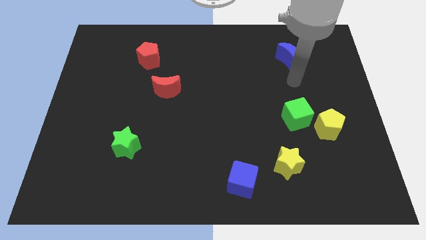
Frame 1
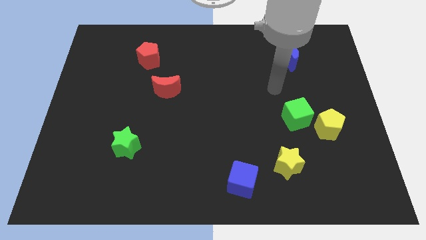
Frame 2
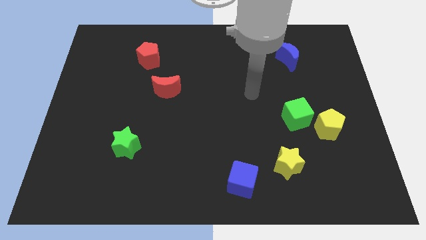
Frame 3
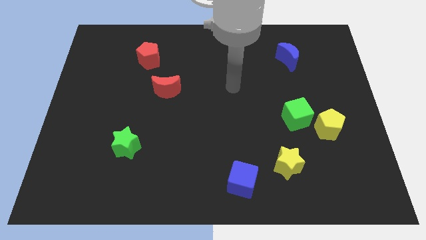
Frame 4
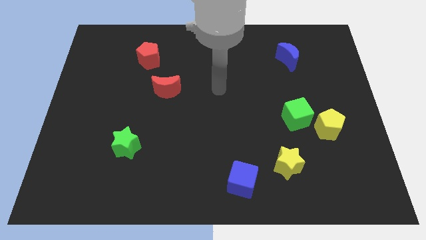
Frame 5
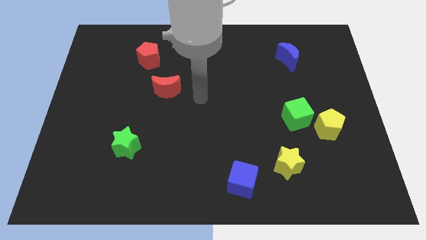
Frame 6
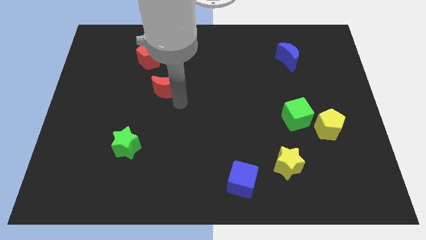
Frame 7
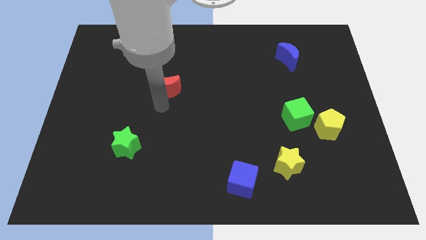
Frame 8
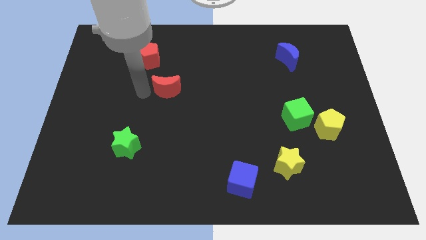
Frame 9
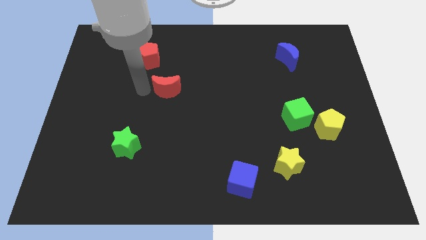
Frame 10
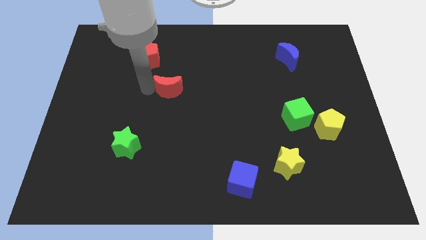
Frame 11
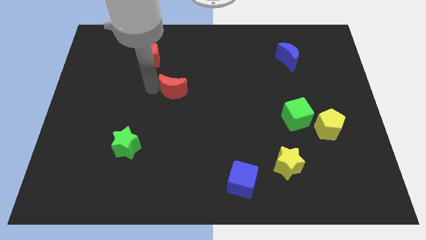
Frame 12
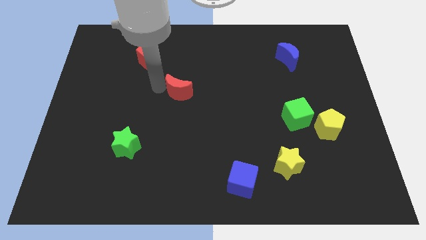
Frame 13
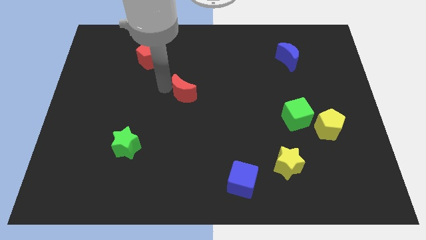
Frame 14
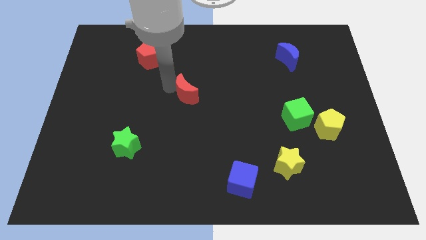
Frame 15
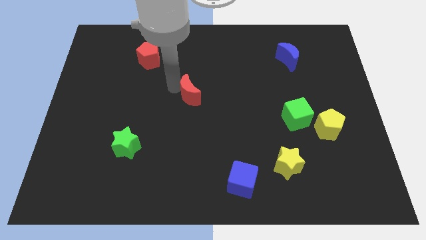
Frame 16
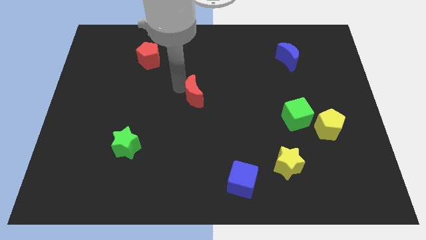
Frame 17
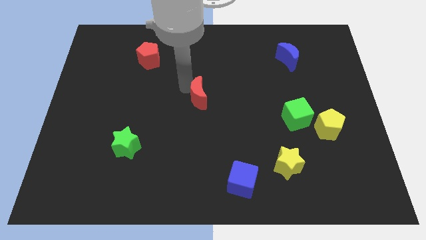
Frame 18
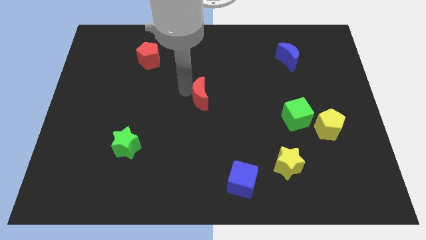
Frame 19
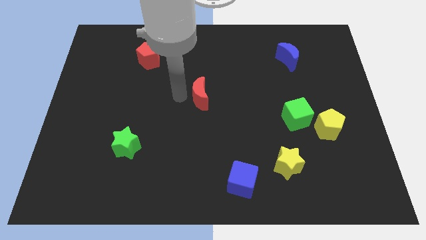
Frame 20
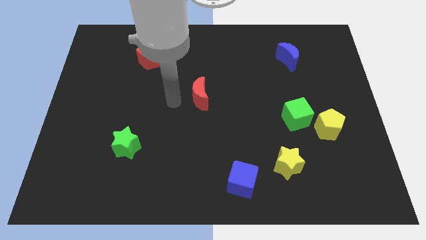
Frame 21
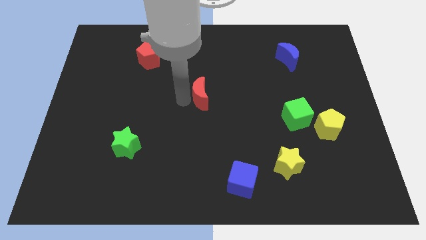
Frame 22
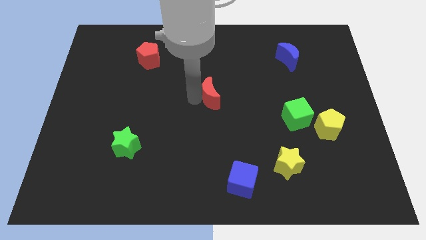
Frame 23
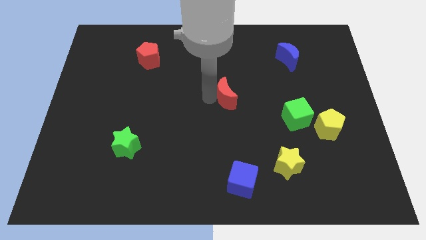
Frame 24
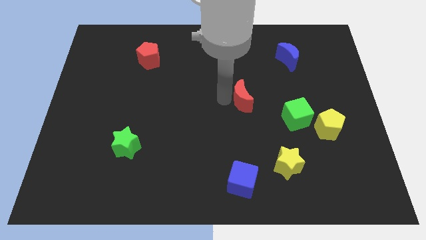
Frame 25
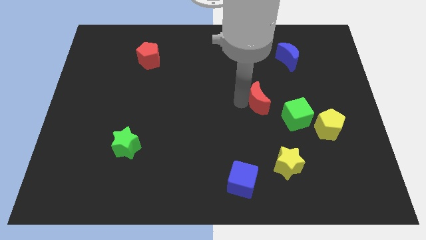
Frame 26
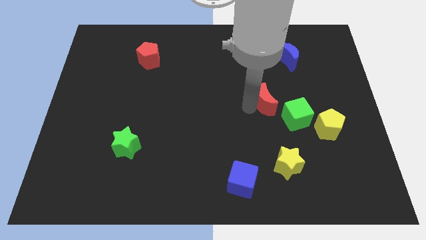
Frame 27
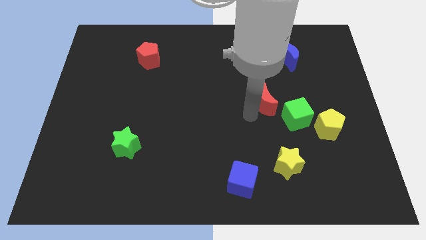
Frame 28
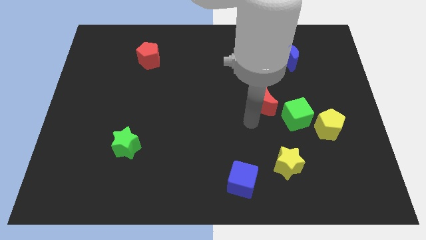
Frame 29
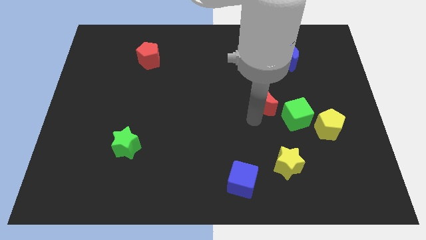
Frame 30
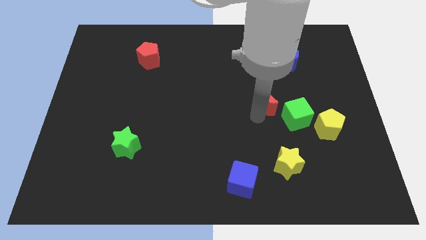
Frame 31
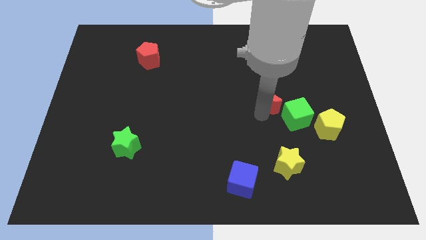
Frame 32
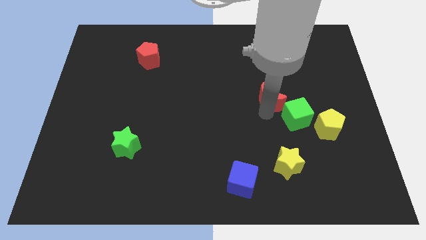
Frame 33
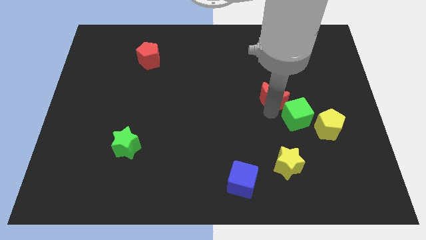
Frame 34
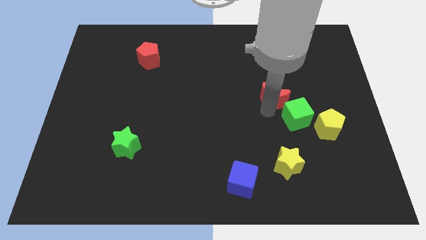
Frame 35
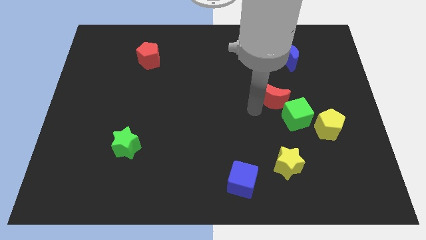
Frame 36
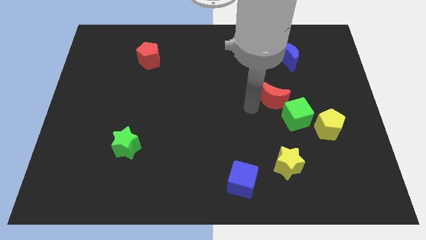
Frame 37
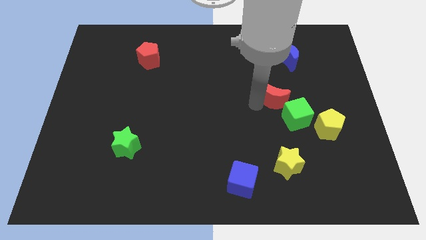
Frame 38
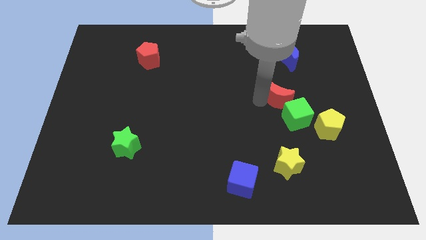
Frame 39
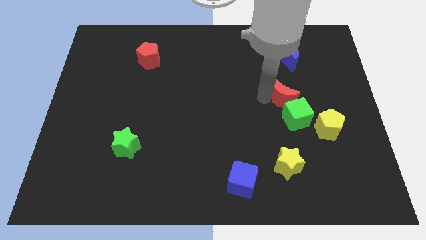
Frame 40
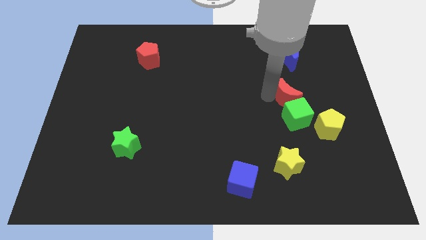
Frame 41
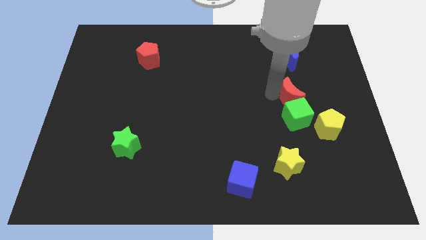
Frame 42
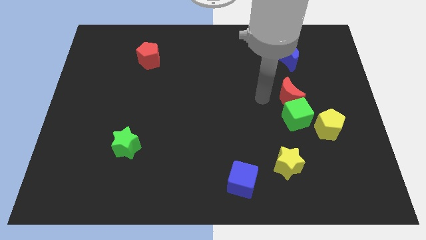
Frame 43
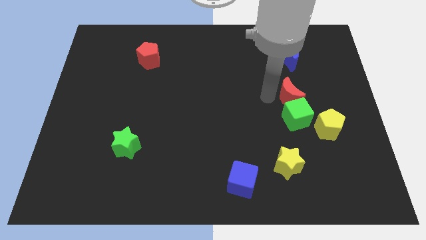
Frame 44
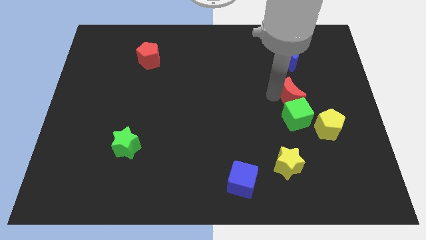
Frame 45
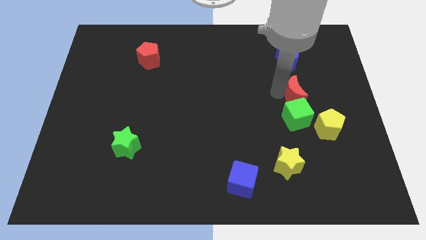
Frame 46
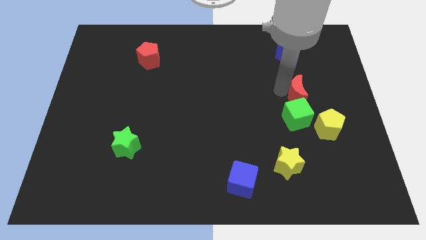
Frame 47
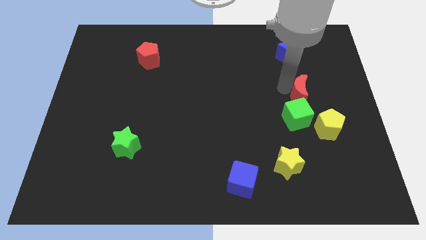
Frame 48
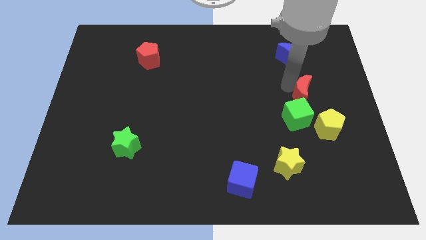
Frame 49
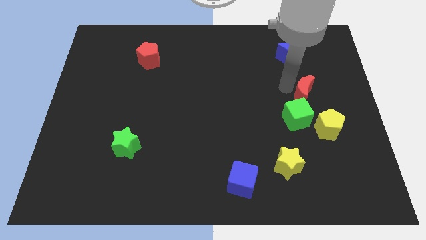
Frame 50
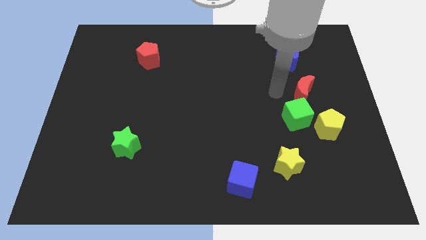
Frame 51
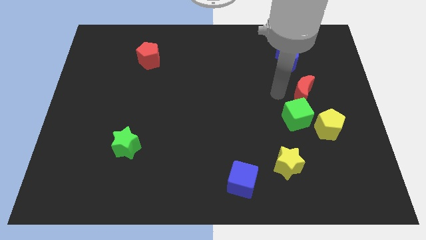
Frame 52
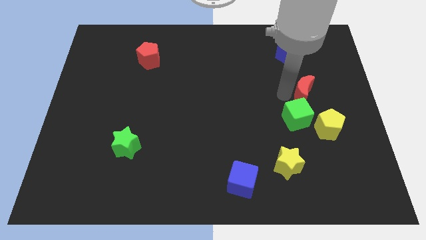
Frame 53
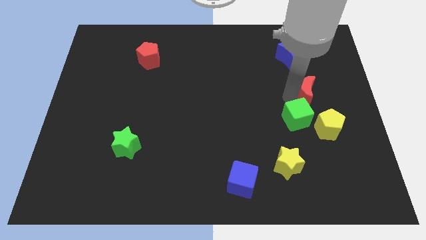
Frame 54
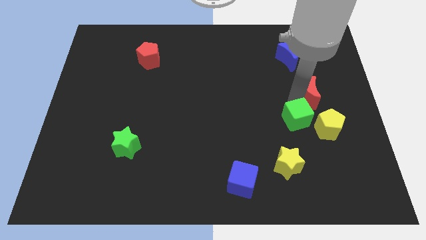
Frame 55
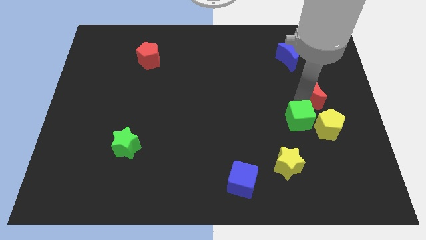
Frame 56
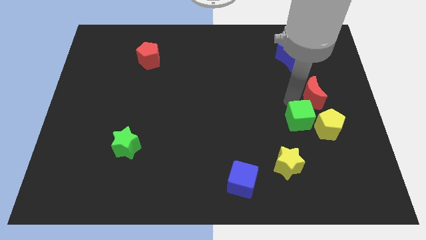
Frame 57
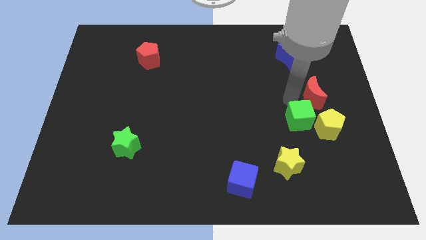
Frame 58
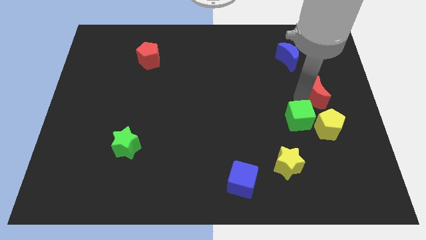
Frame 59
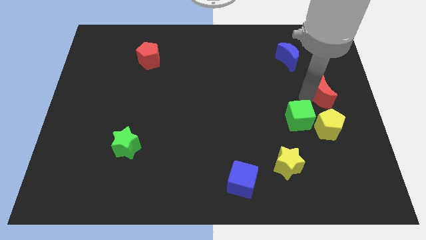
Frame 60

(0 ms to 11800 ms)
slide the red moon to the center right
